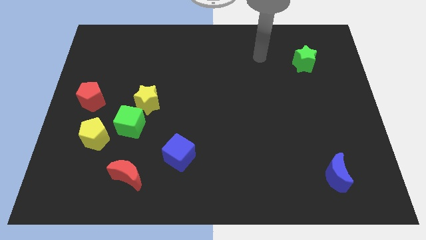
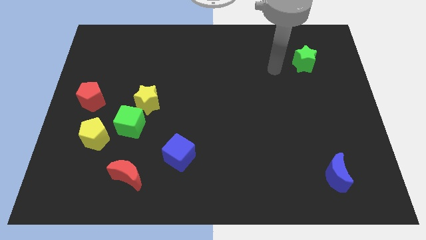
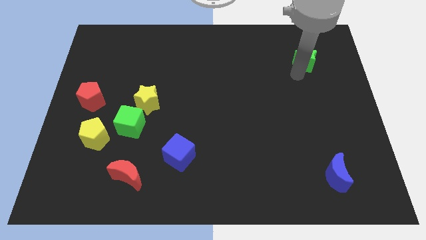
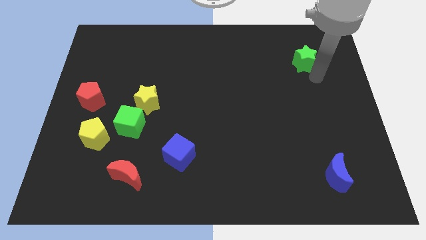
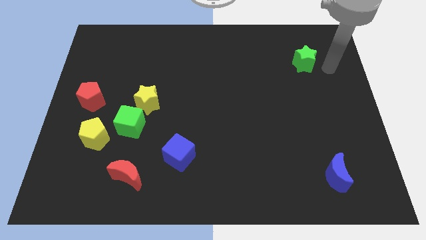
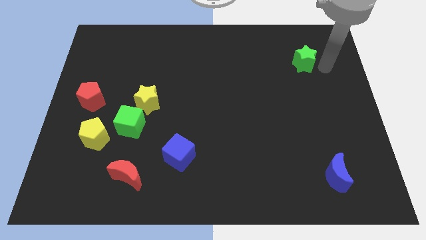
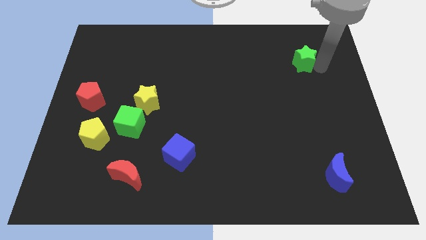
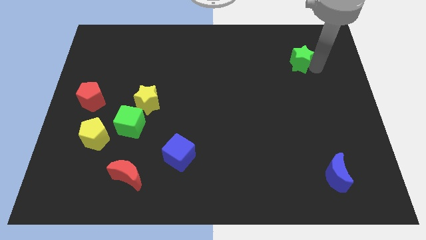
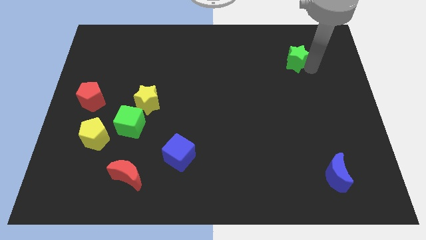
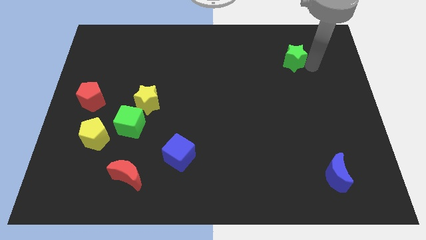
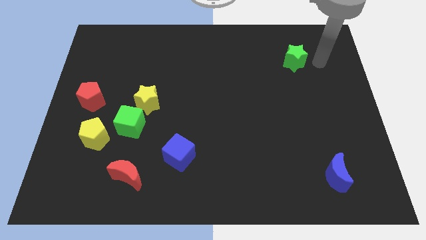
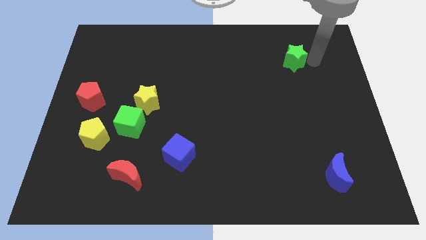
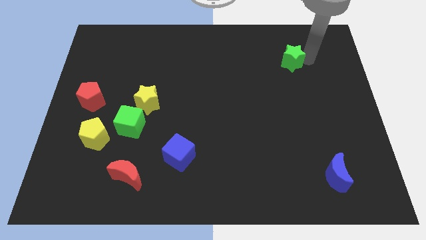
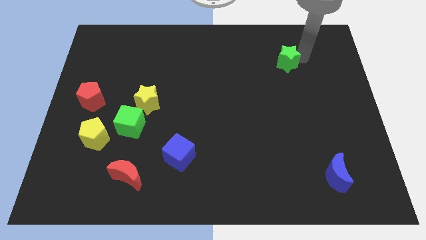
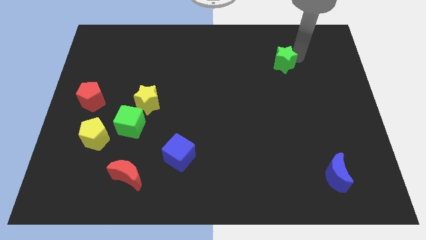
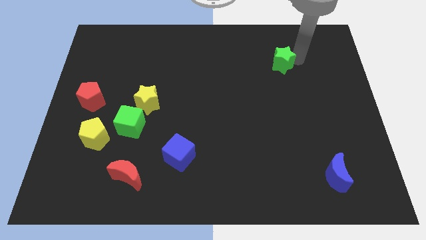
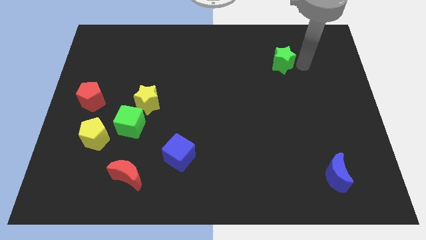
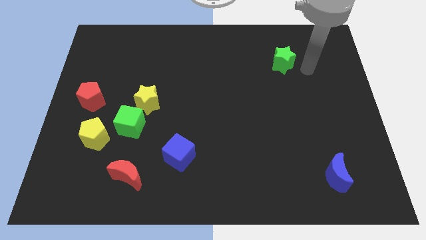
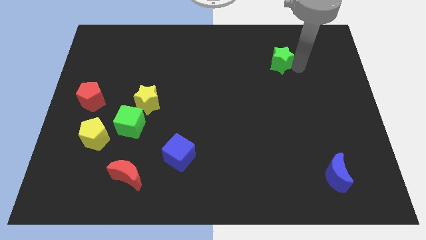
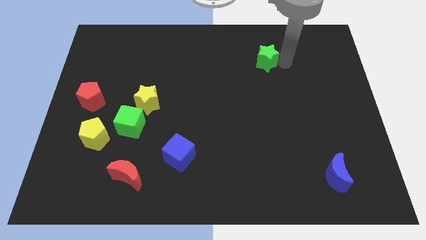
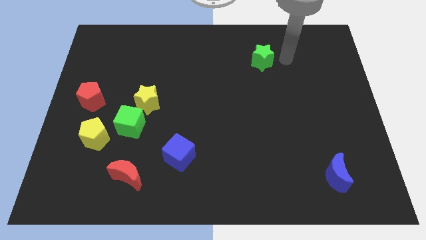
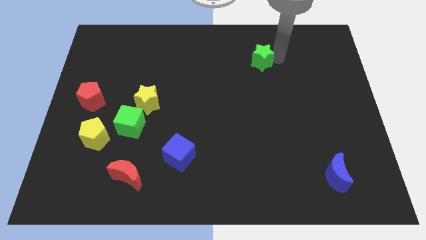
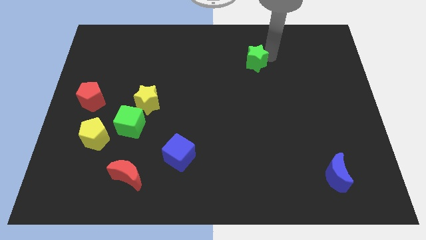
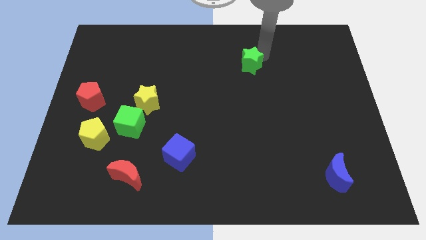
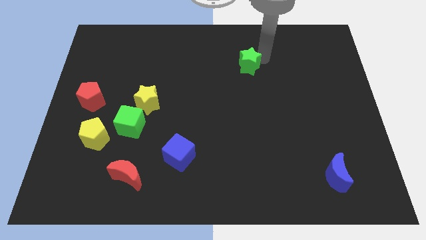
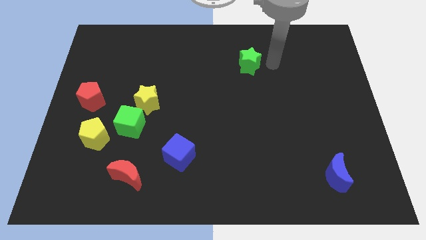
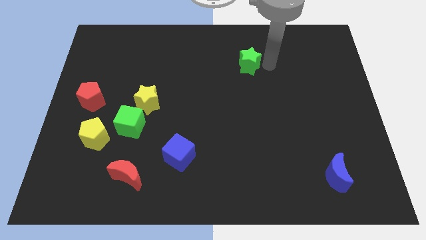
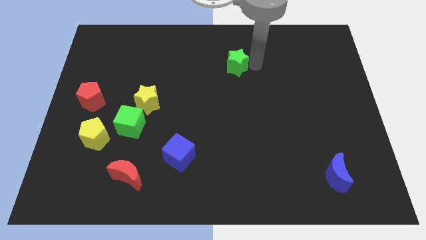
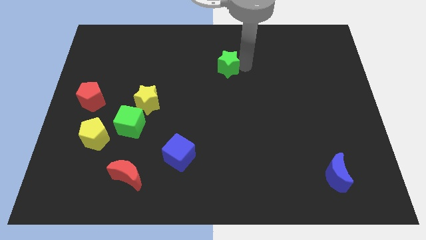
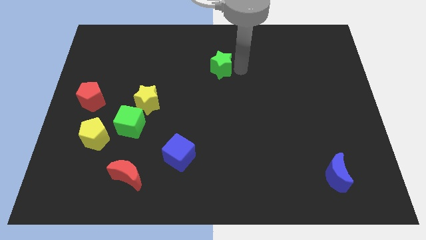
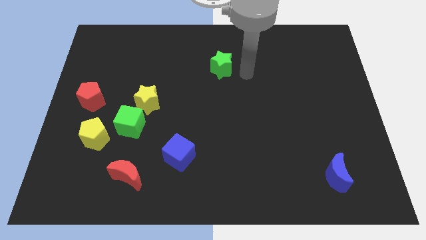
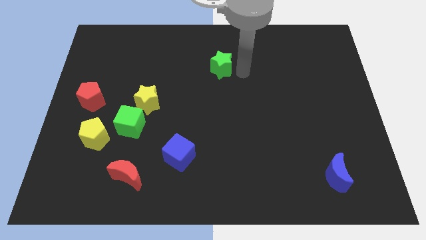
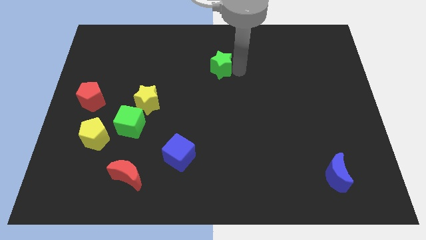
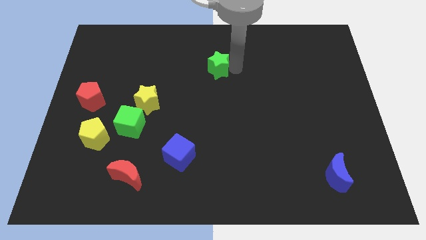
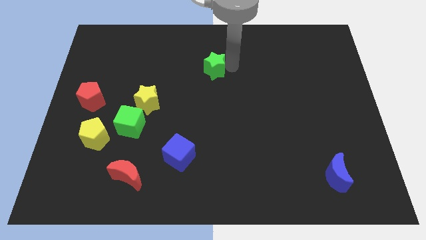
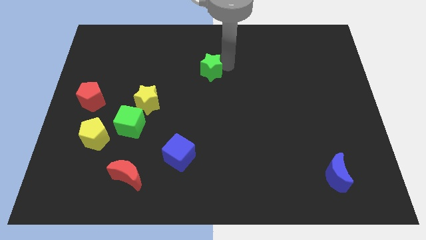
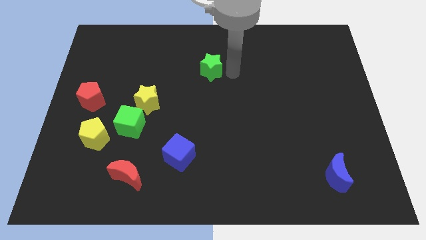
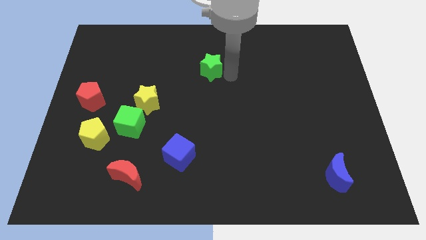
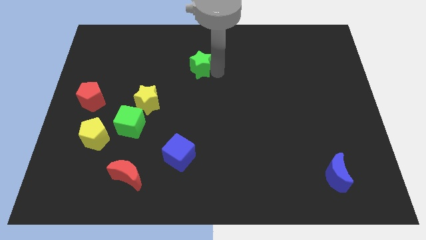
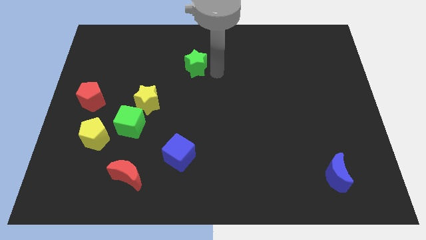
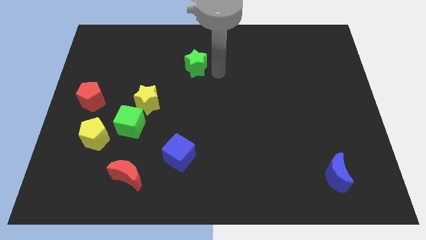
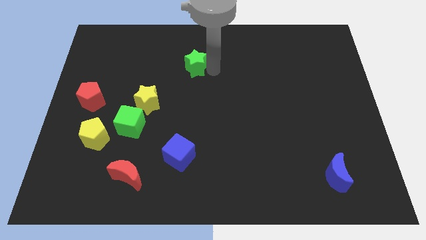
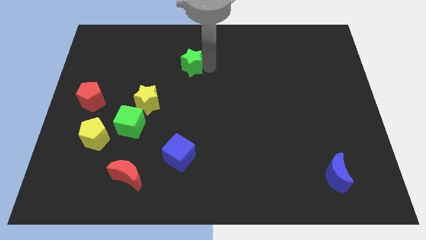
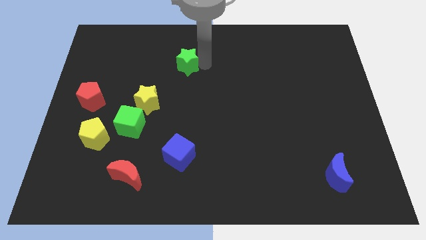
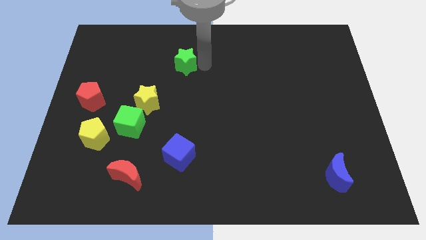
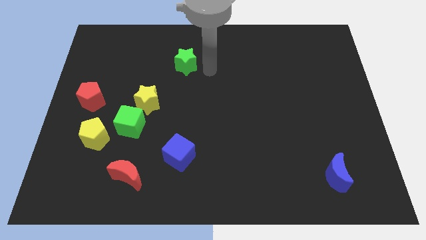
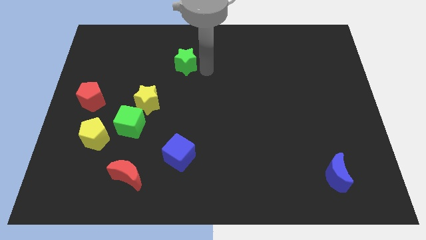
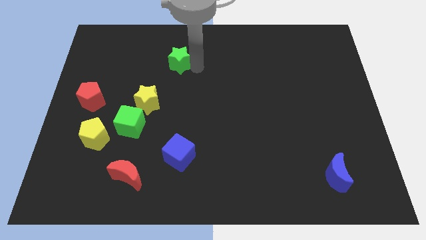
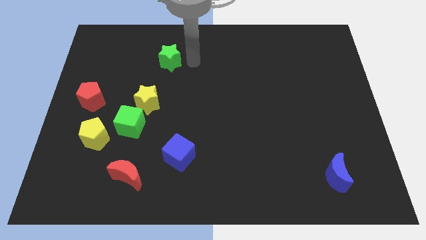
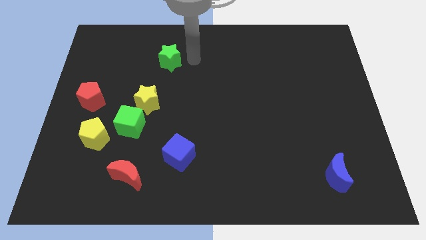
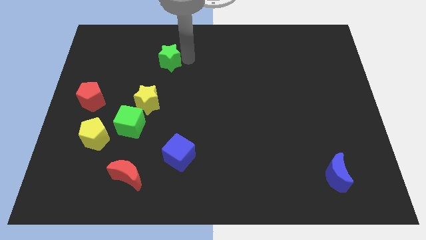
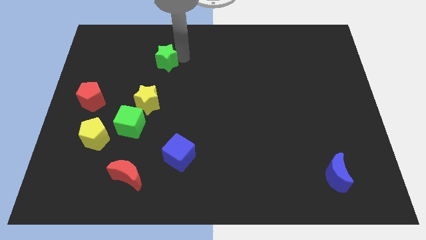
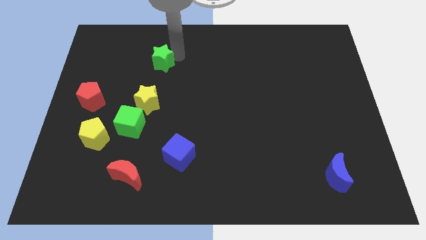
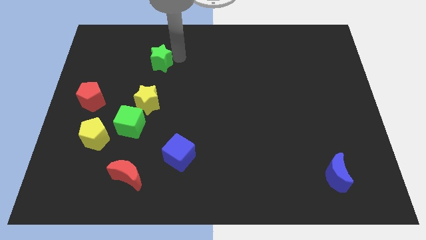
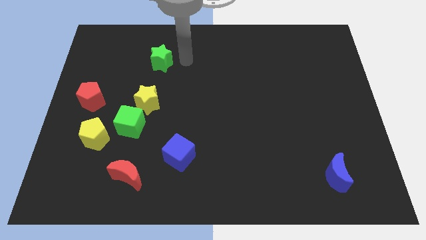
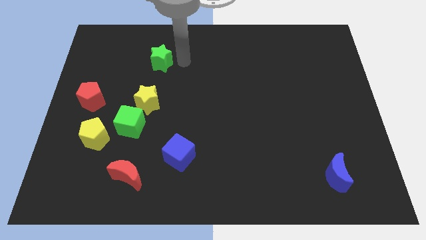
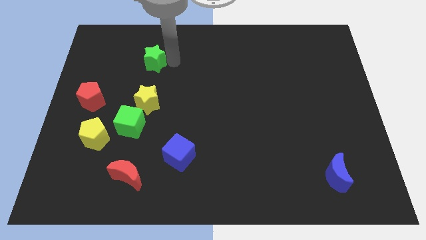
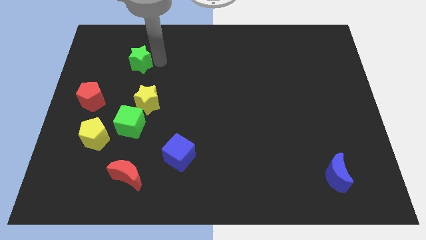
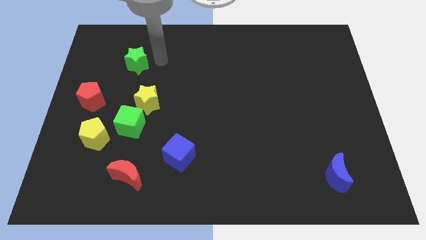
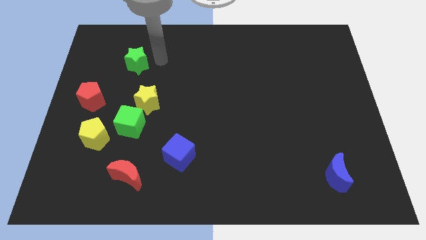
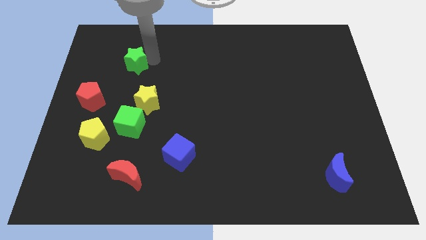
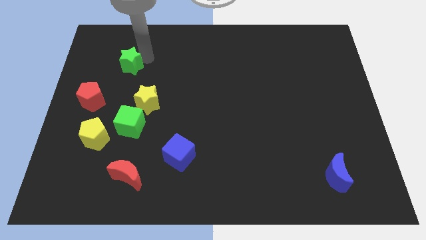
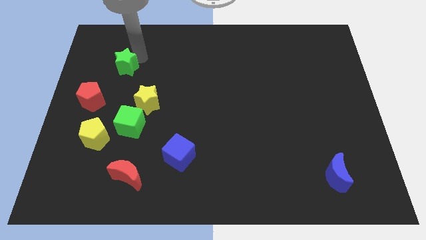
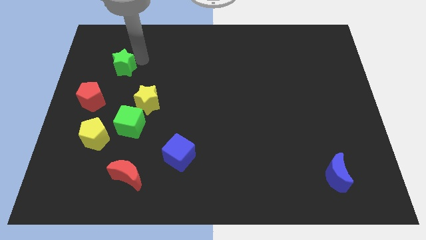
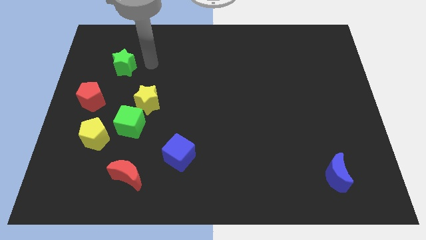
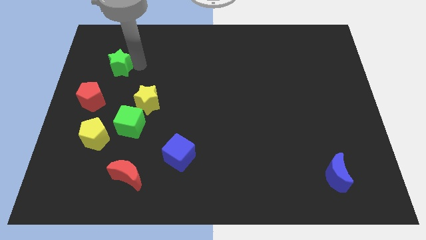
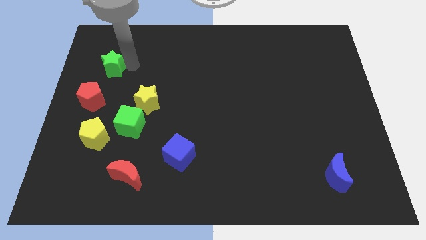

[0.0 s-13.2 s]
slide the green star to the top of the red pentagon
